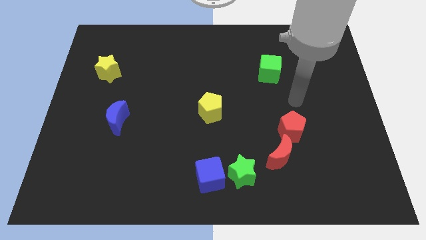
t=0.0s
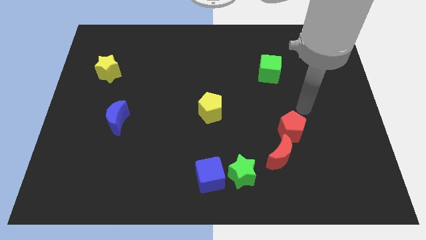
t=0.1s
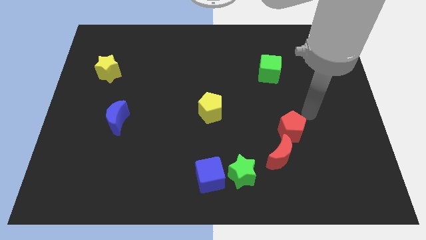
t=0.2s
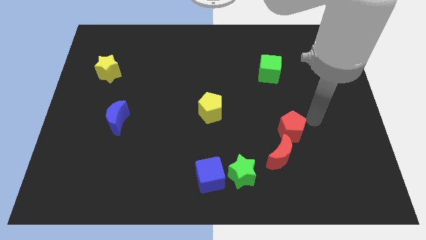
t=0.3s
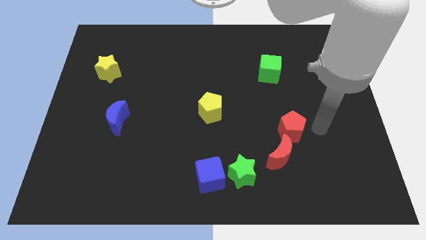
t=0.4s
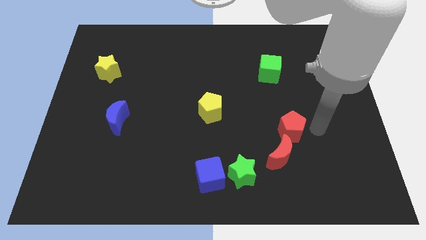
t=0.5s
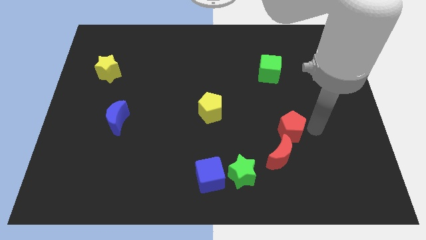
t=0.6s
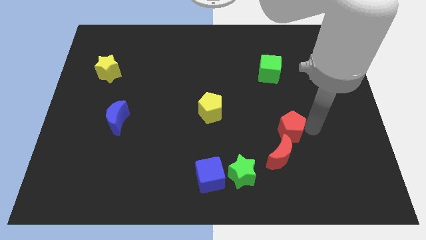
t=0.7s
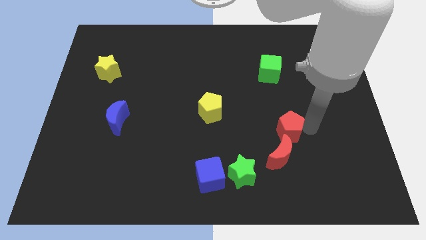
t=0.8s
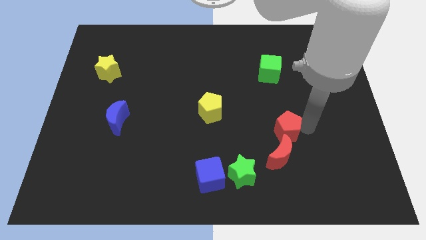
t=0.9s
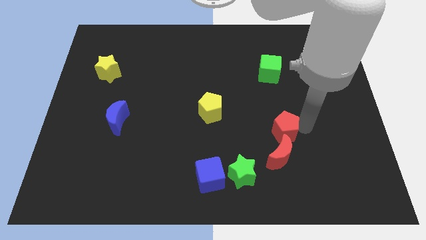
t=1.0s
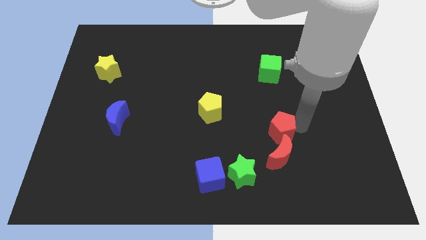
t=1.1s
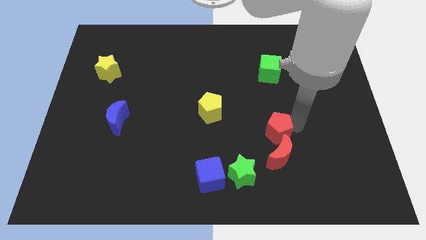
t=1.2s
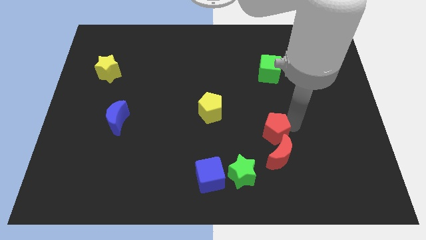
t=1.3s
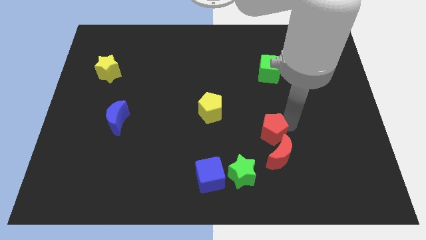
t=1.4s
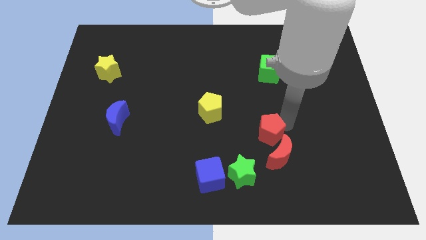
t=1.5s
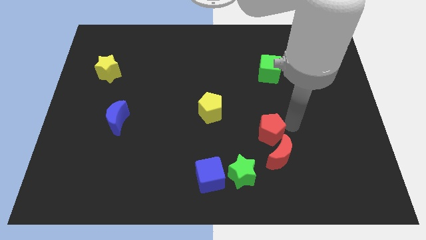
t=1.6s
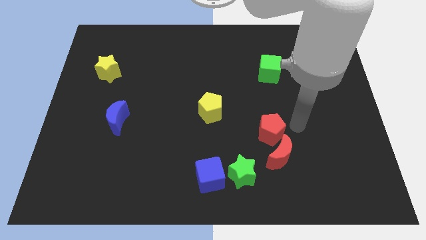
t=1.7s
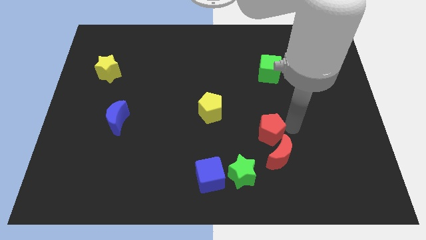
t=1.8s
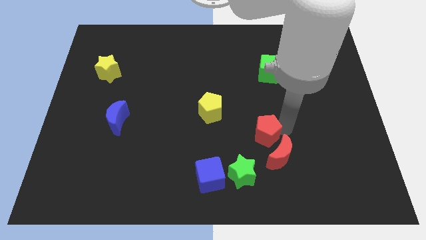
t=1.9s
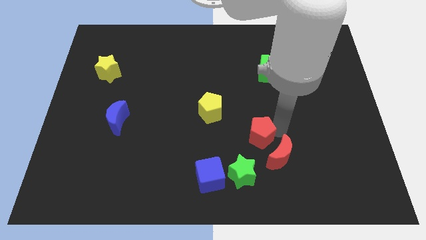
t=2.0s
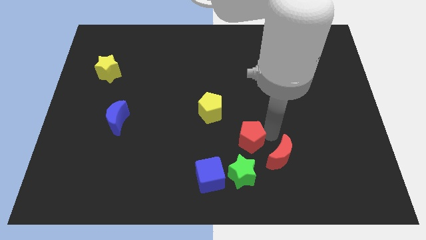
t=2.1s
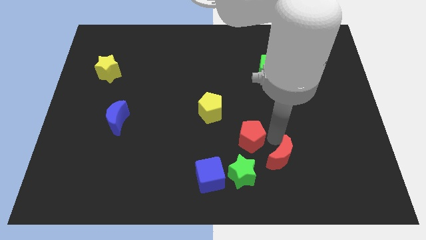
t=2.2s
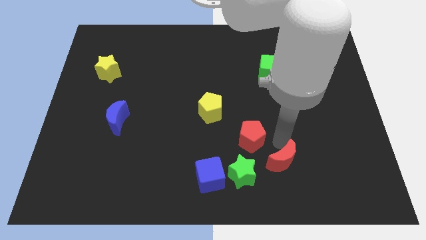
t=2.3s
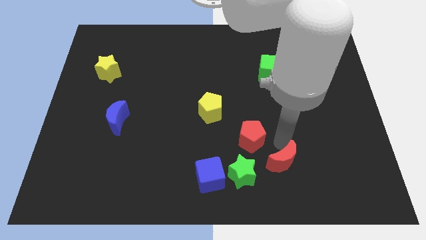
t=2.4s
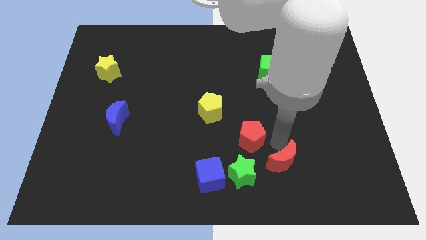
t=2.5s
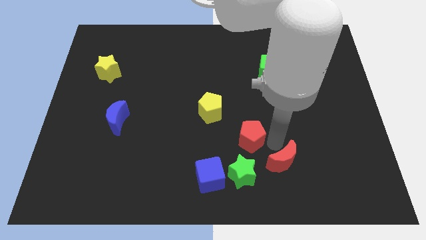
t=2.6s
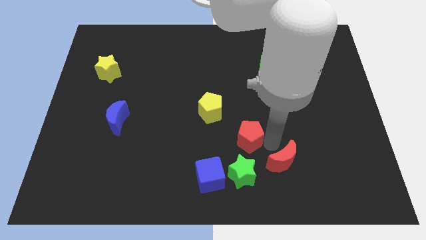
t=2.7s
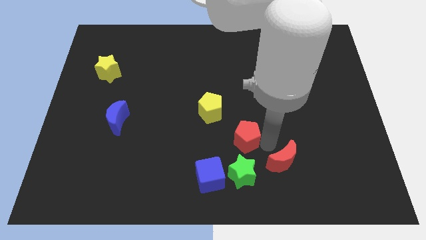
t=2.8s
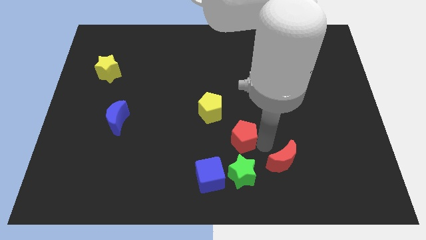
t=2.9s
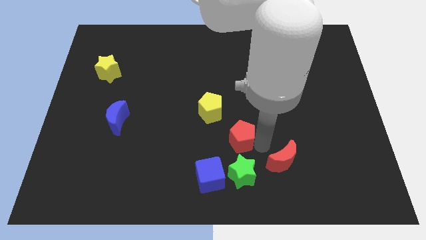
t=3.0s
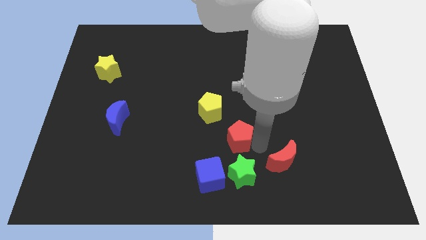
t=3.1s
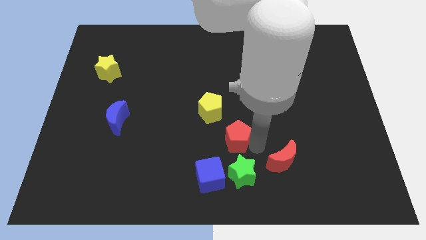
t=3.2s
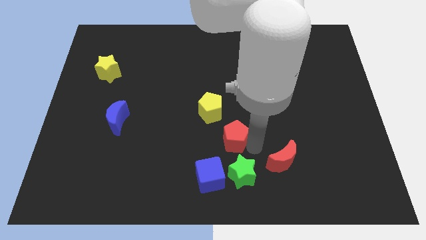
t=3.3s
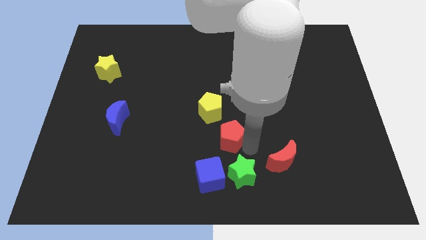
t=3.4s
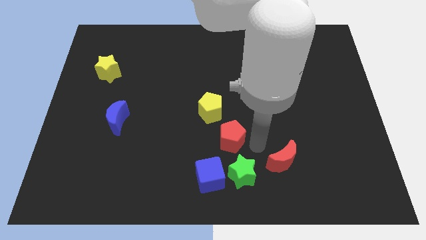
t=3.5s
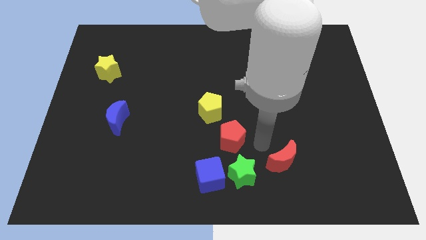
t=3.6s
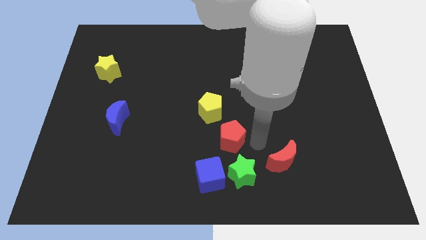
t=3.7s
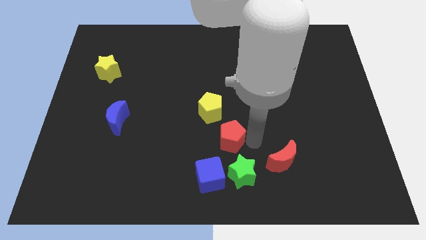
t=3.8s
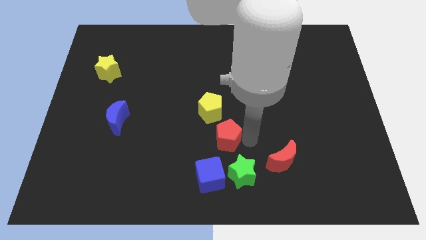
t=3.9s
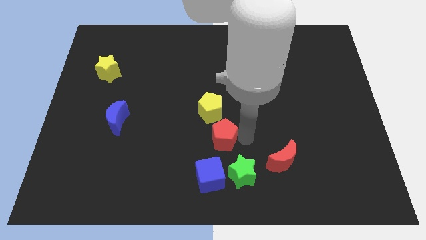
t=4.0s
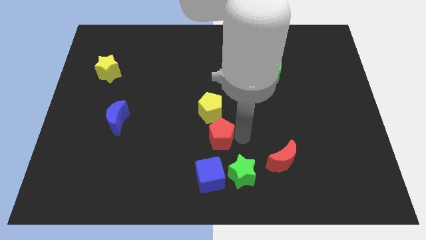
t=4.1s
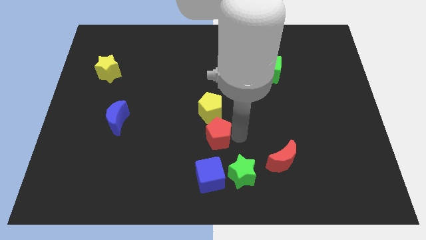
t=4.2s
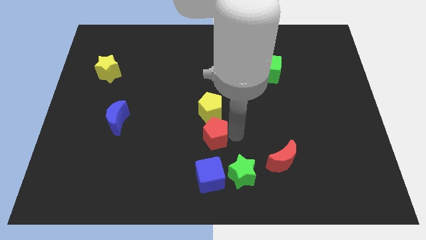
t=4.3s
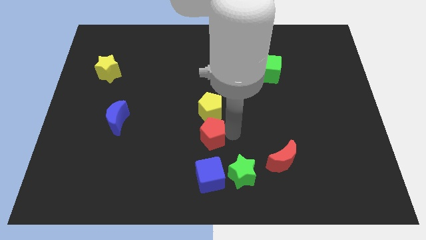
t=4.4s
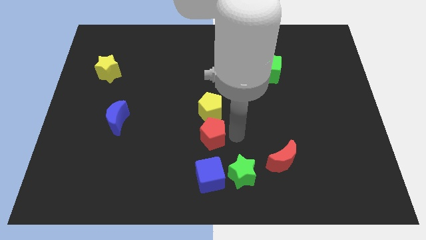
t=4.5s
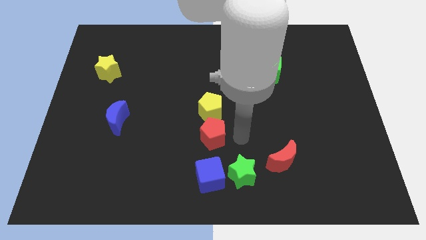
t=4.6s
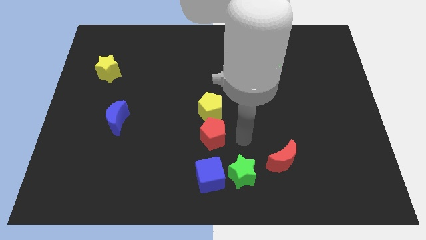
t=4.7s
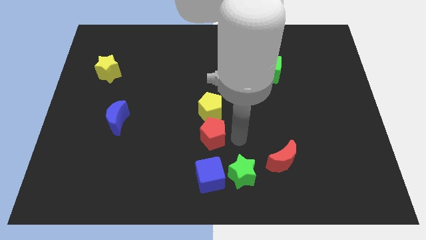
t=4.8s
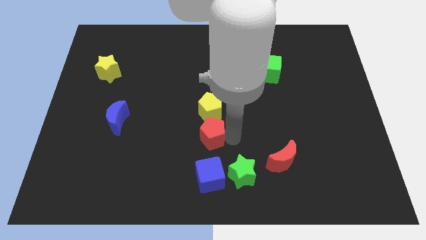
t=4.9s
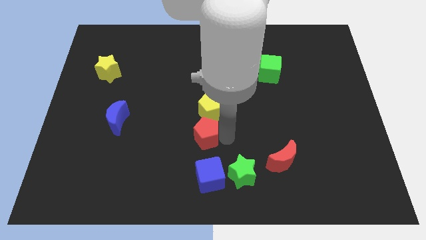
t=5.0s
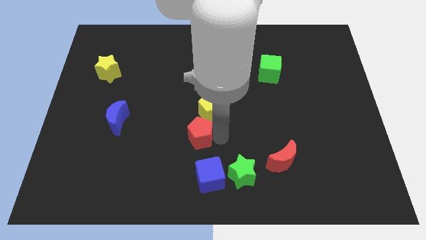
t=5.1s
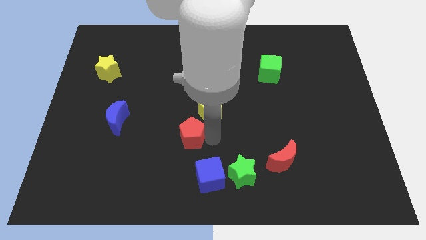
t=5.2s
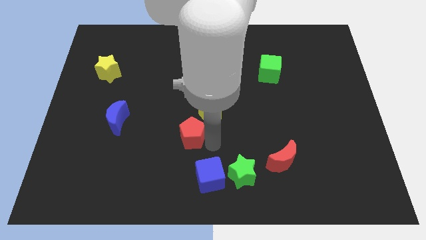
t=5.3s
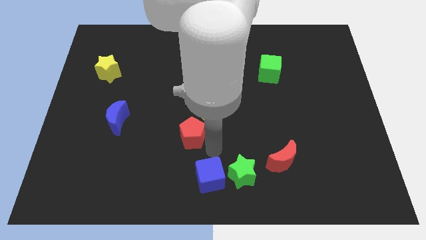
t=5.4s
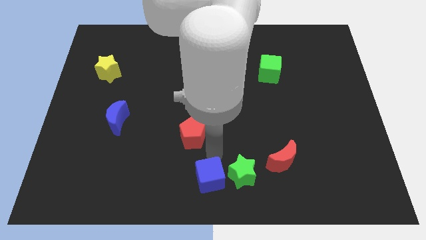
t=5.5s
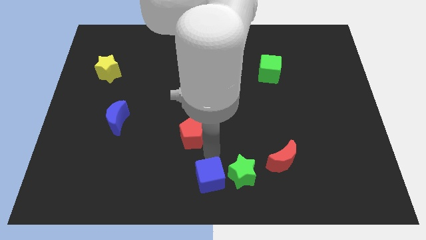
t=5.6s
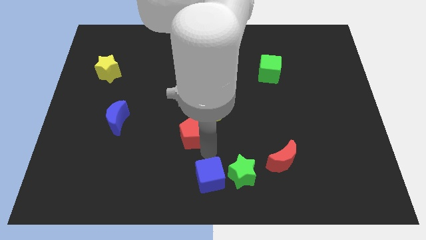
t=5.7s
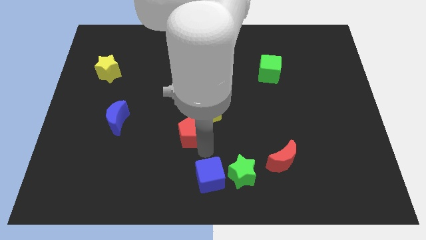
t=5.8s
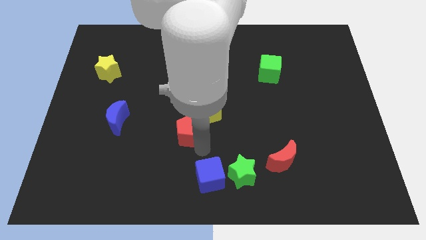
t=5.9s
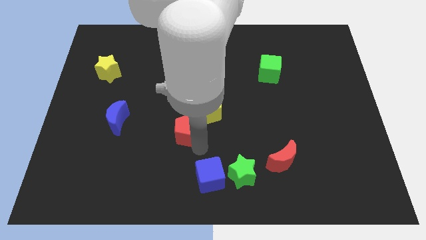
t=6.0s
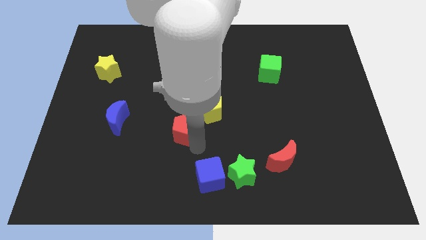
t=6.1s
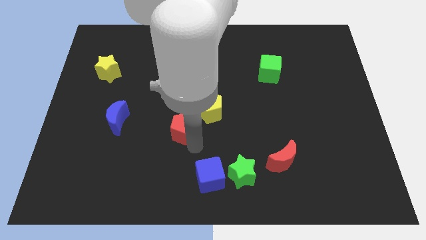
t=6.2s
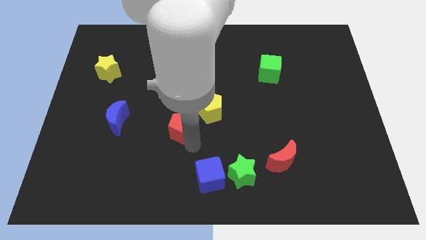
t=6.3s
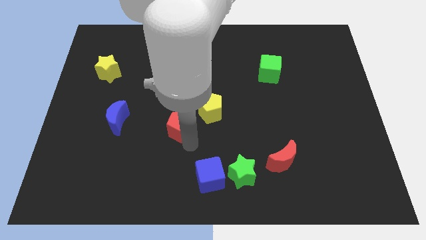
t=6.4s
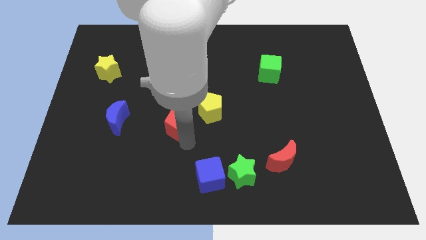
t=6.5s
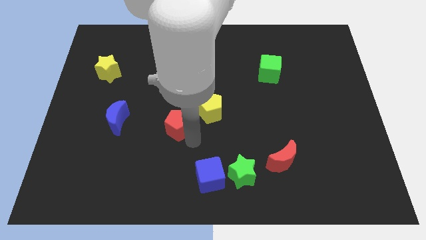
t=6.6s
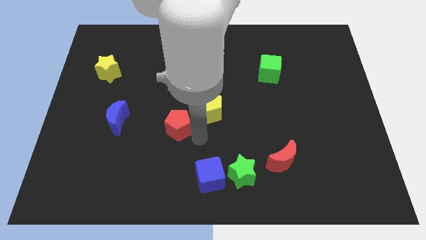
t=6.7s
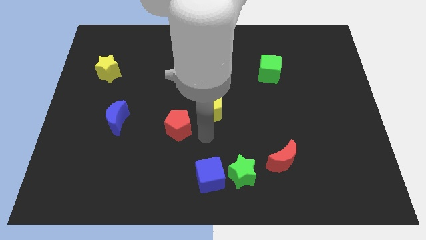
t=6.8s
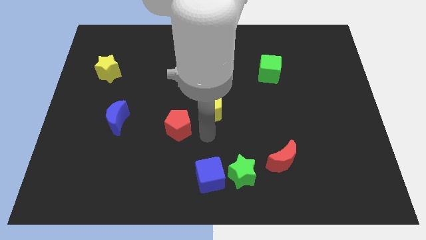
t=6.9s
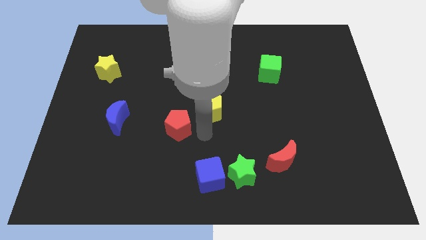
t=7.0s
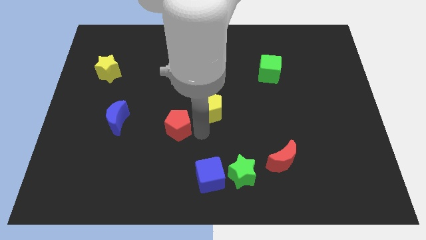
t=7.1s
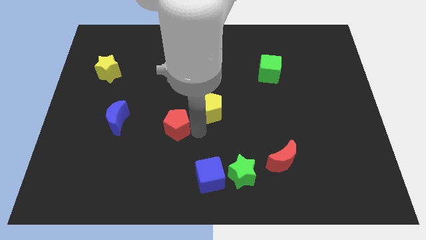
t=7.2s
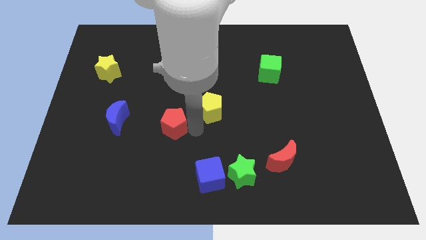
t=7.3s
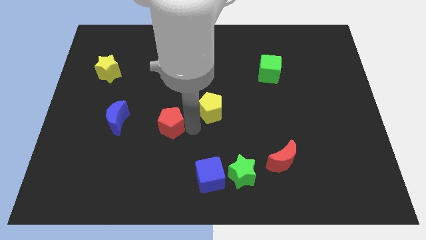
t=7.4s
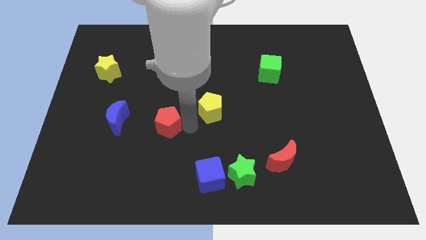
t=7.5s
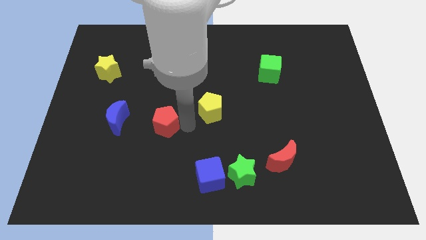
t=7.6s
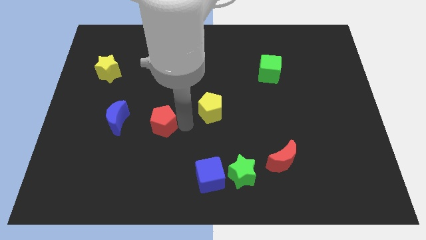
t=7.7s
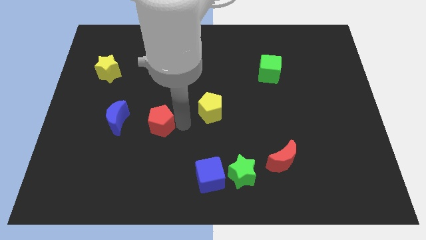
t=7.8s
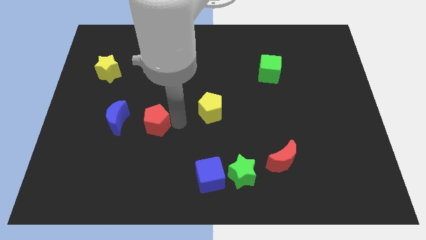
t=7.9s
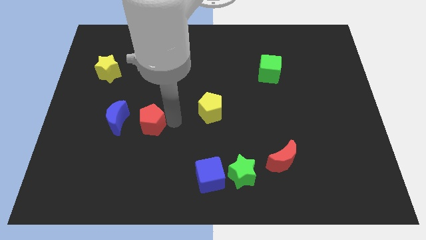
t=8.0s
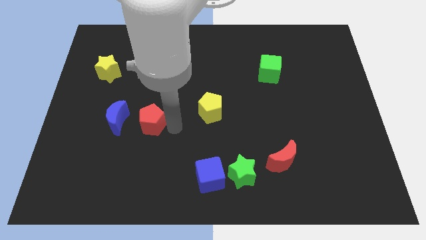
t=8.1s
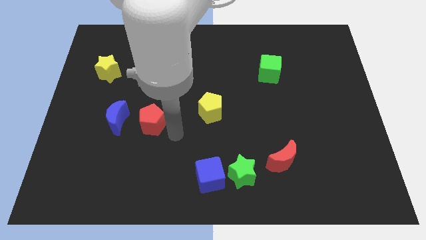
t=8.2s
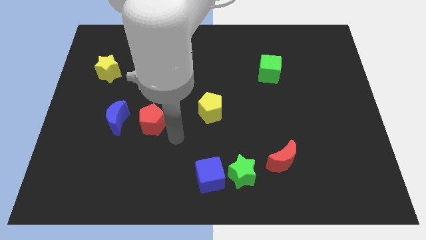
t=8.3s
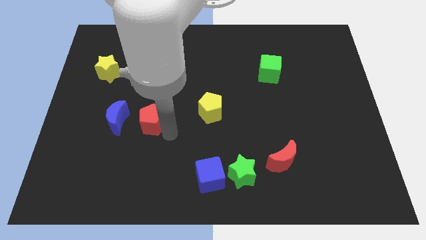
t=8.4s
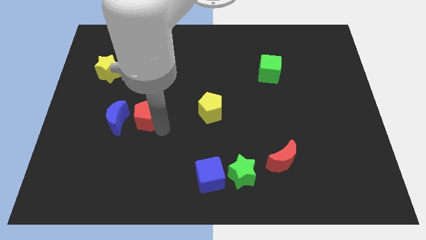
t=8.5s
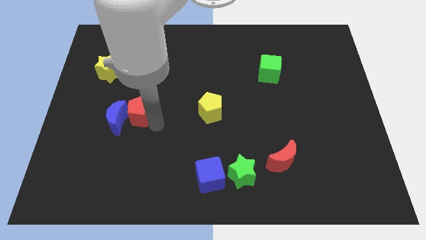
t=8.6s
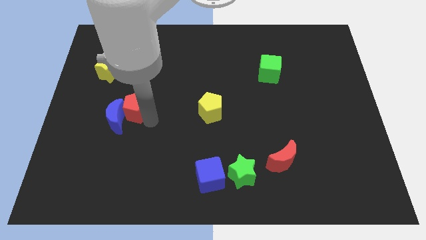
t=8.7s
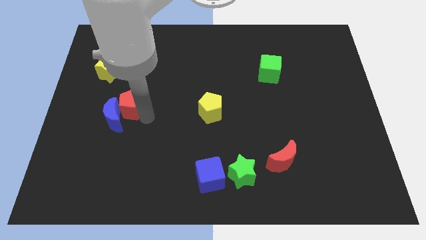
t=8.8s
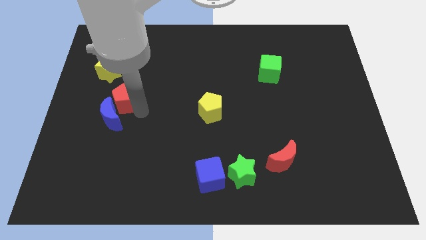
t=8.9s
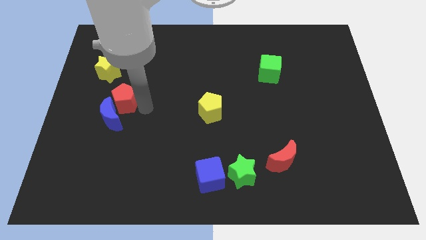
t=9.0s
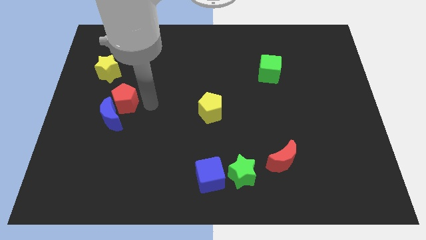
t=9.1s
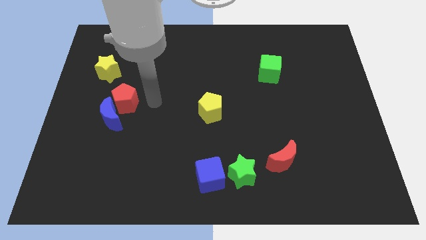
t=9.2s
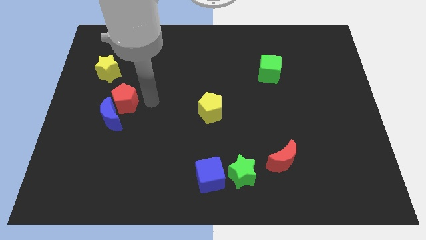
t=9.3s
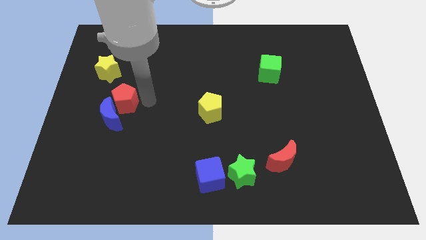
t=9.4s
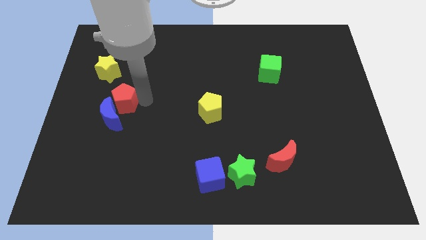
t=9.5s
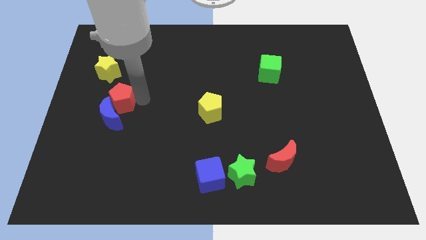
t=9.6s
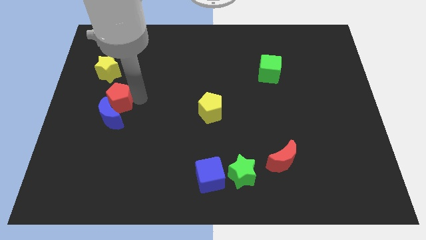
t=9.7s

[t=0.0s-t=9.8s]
push the red pentagon to the bottom of the yellow star
